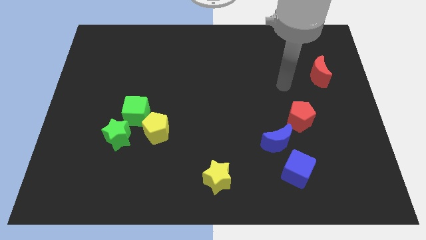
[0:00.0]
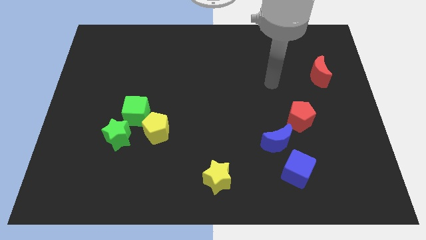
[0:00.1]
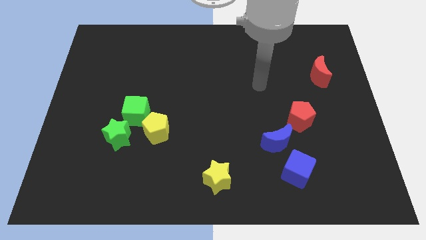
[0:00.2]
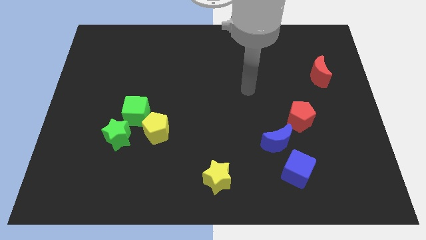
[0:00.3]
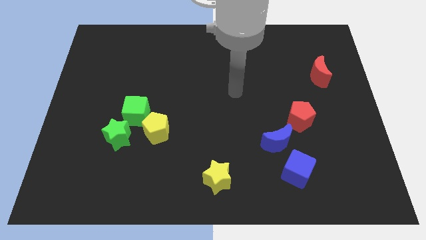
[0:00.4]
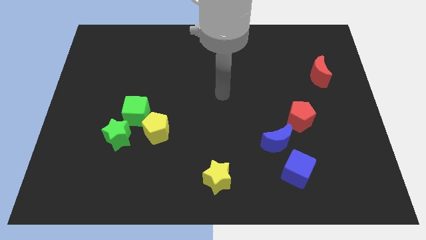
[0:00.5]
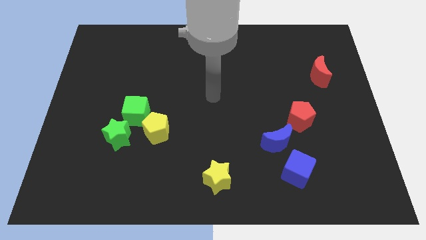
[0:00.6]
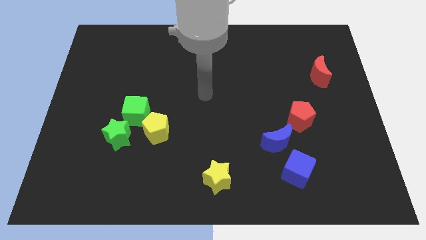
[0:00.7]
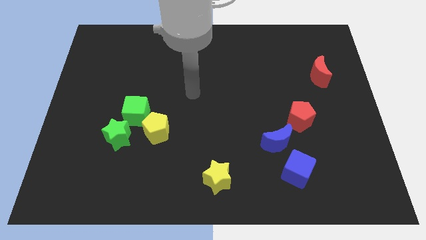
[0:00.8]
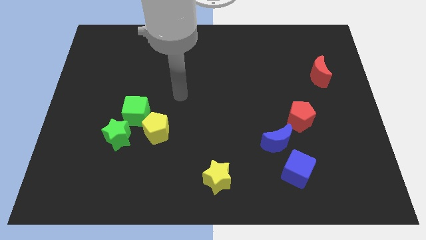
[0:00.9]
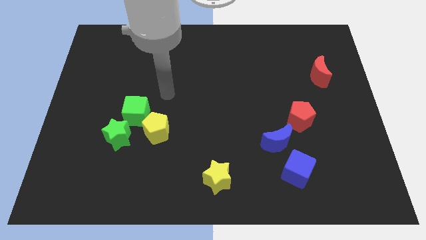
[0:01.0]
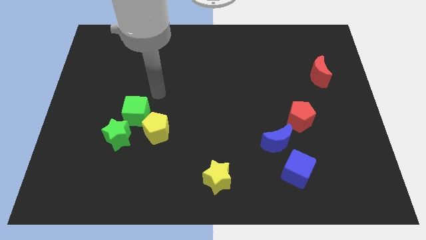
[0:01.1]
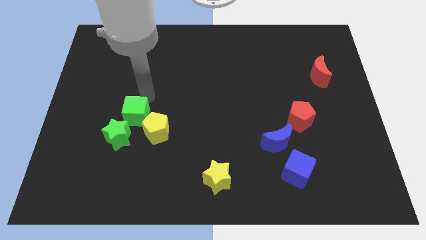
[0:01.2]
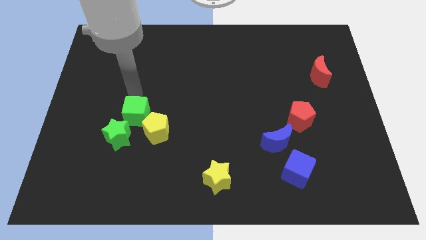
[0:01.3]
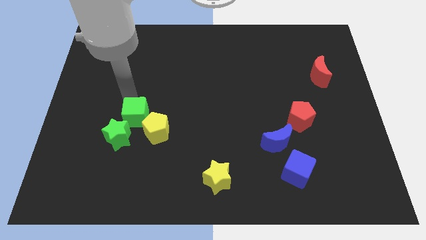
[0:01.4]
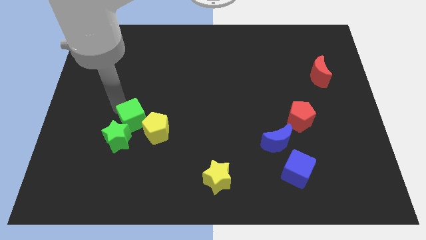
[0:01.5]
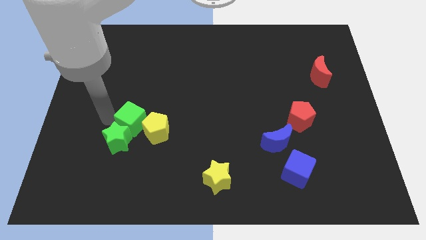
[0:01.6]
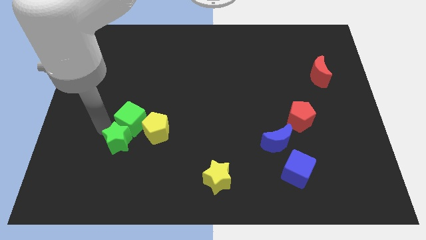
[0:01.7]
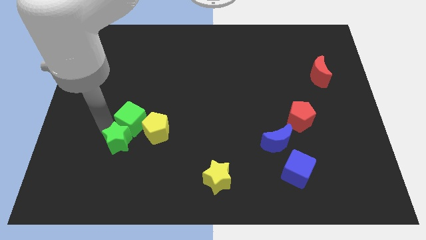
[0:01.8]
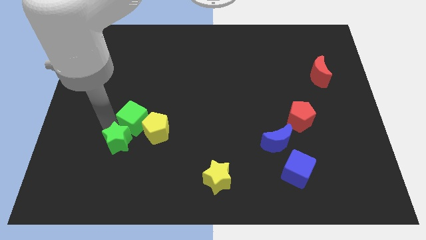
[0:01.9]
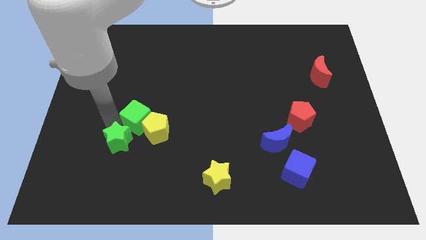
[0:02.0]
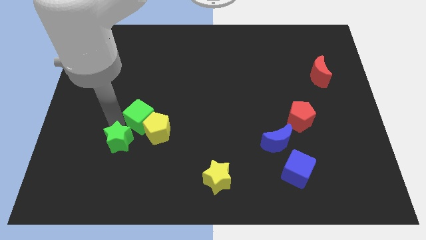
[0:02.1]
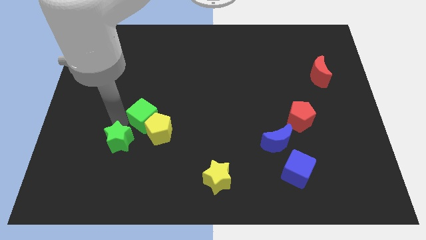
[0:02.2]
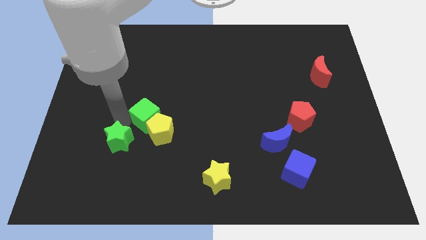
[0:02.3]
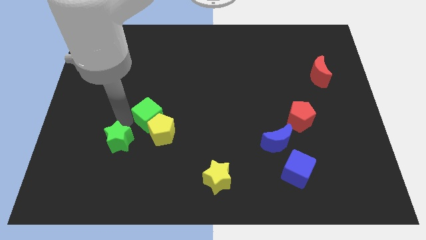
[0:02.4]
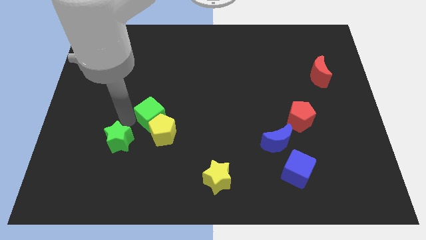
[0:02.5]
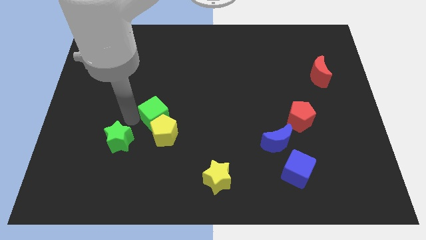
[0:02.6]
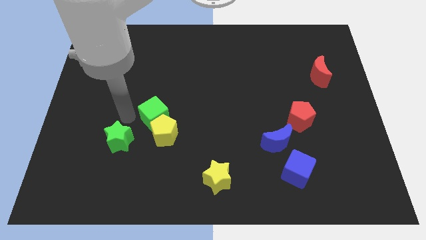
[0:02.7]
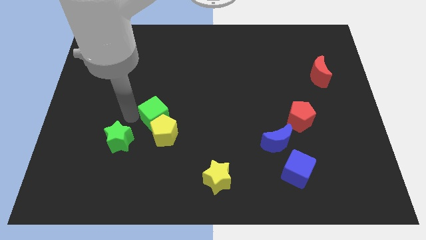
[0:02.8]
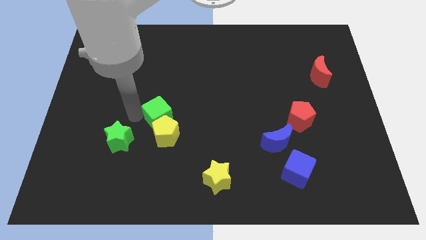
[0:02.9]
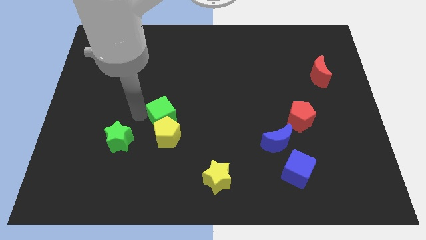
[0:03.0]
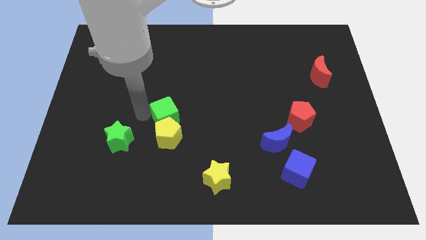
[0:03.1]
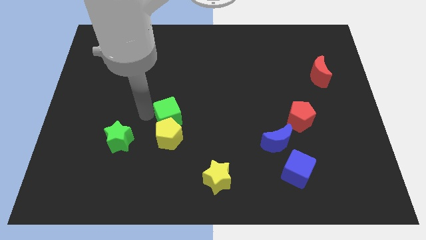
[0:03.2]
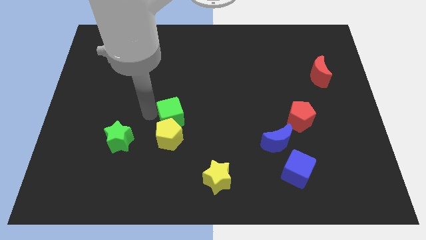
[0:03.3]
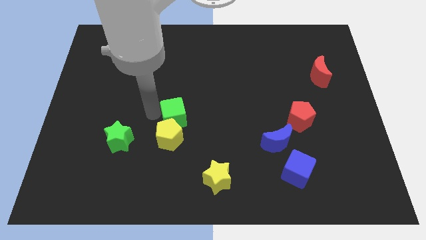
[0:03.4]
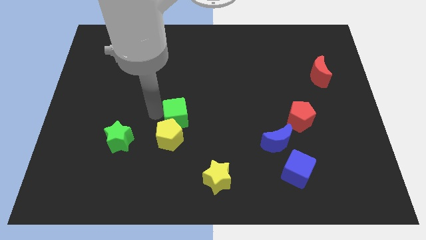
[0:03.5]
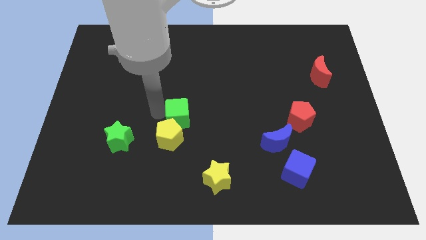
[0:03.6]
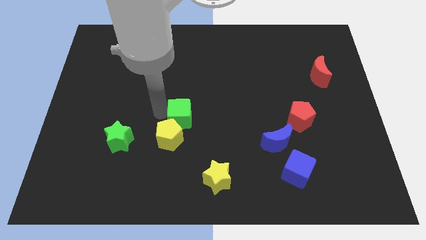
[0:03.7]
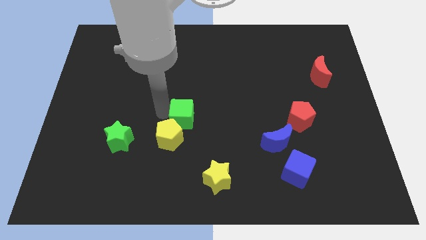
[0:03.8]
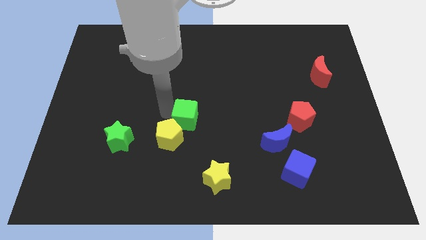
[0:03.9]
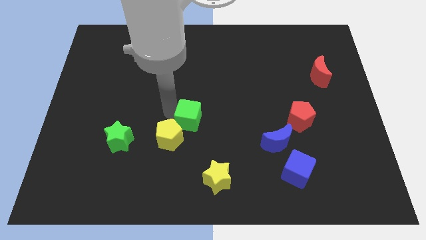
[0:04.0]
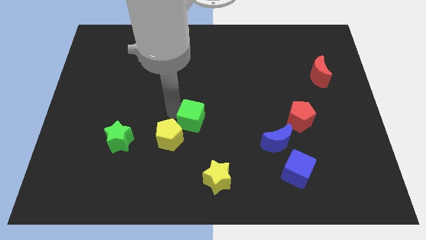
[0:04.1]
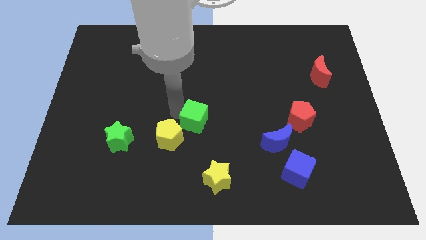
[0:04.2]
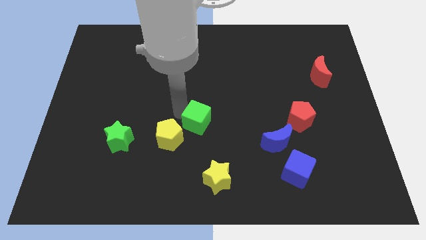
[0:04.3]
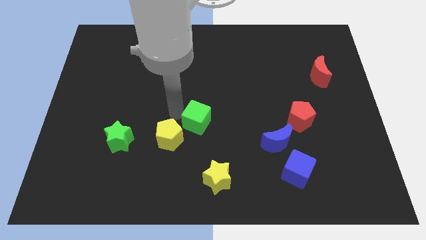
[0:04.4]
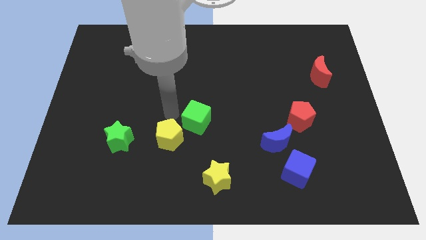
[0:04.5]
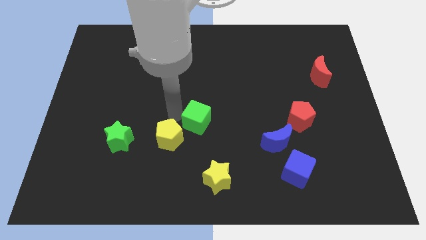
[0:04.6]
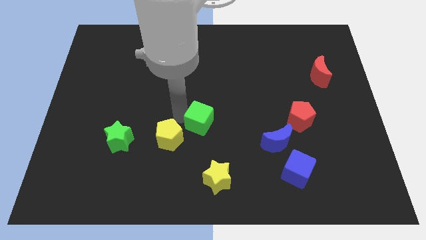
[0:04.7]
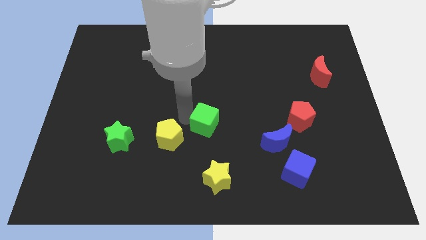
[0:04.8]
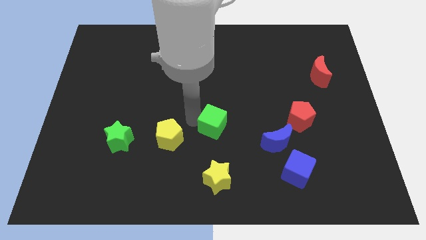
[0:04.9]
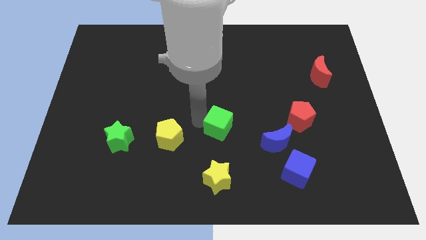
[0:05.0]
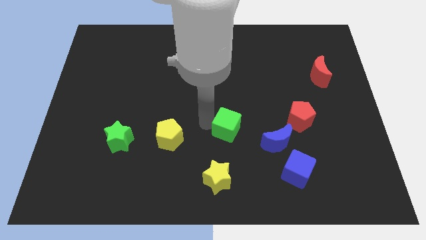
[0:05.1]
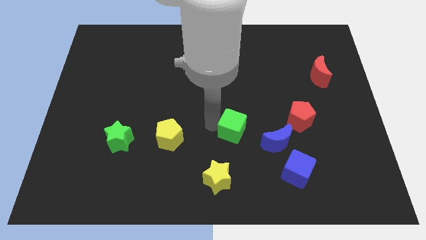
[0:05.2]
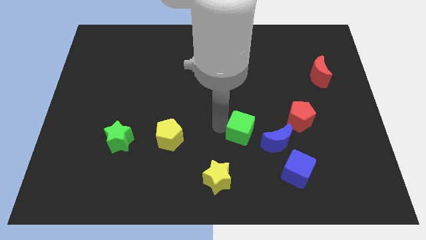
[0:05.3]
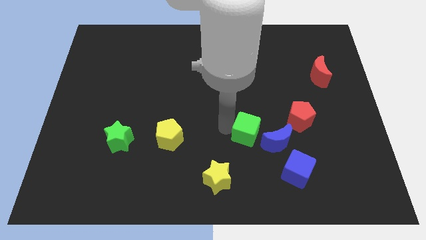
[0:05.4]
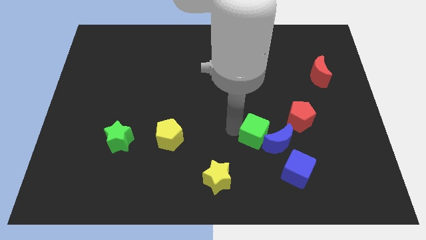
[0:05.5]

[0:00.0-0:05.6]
move the green cube next to the blue moon

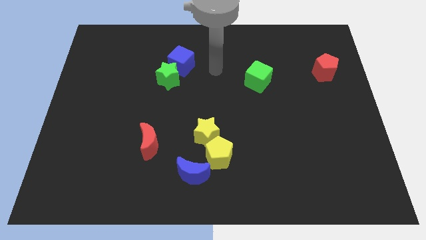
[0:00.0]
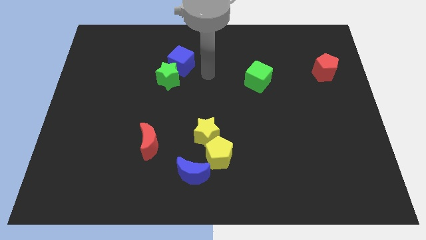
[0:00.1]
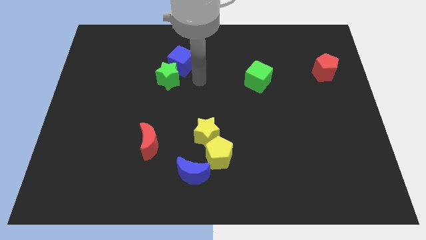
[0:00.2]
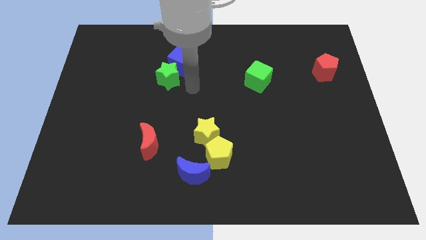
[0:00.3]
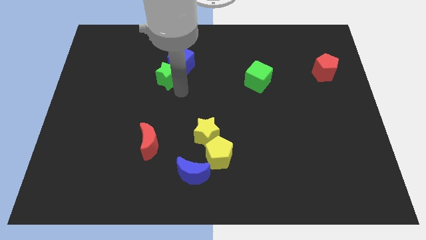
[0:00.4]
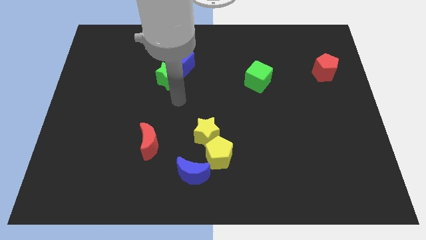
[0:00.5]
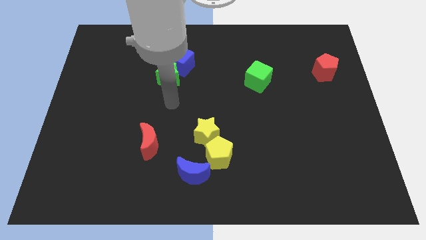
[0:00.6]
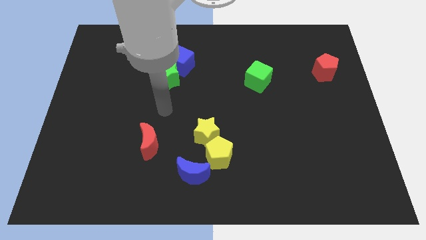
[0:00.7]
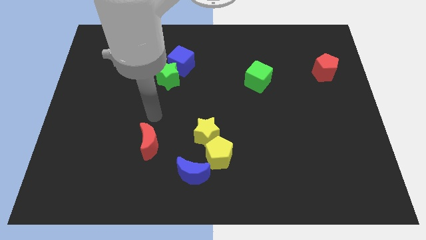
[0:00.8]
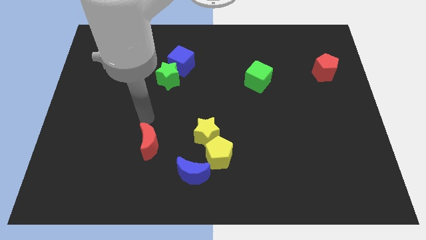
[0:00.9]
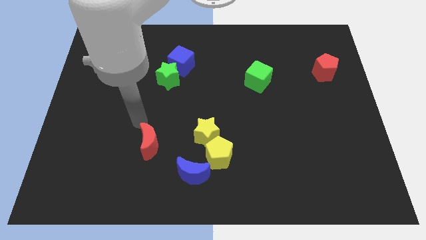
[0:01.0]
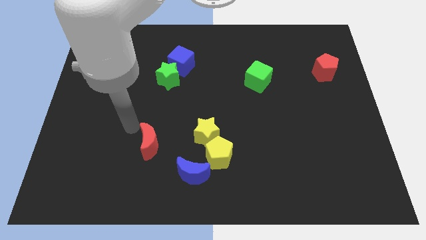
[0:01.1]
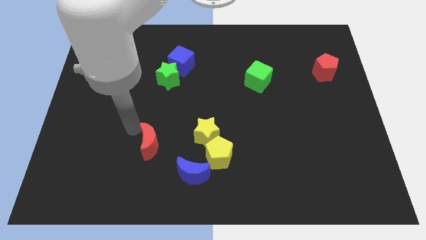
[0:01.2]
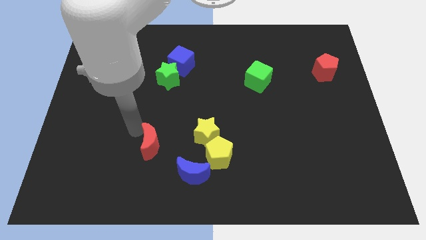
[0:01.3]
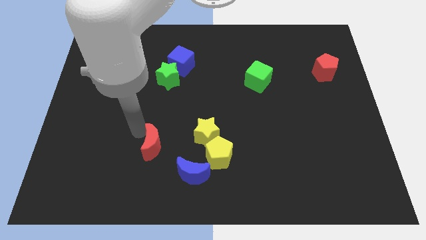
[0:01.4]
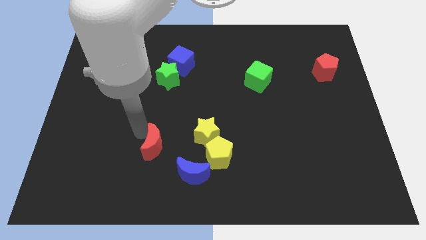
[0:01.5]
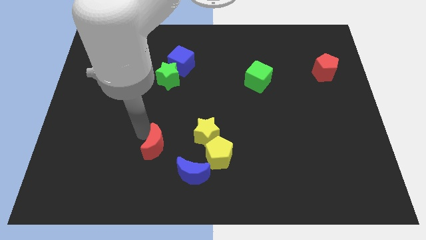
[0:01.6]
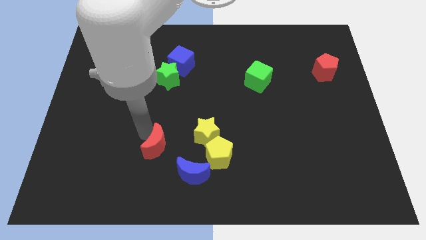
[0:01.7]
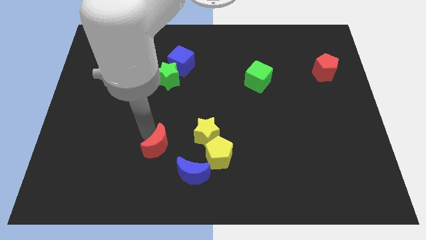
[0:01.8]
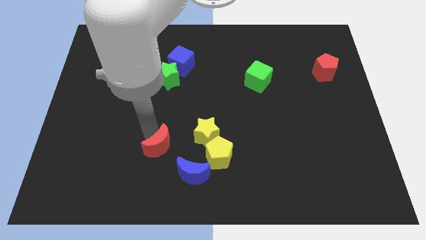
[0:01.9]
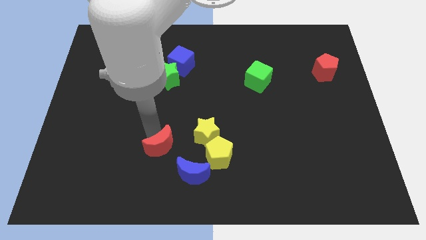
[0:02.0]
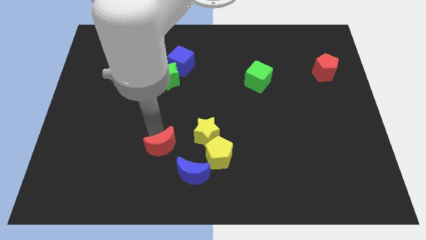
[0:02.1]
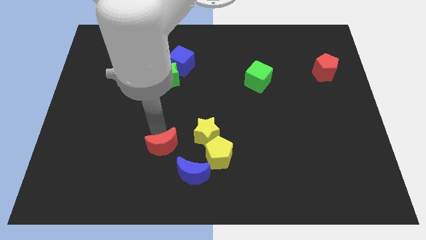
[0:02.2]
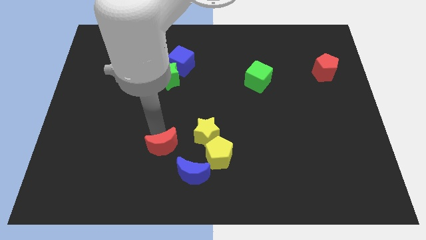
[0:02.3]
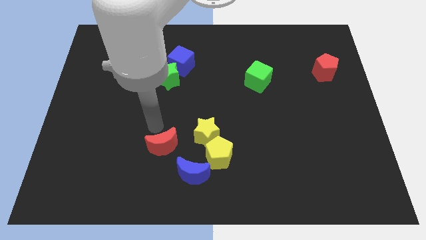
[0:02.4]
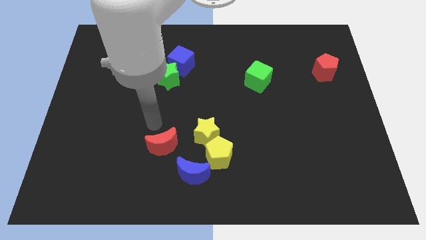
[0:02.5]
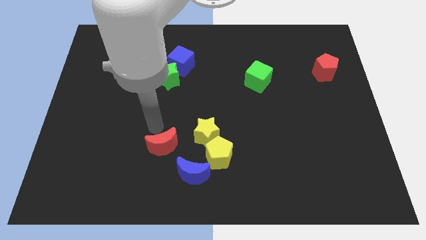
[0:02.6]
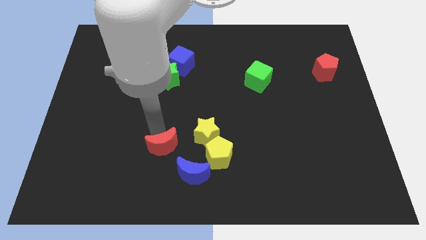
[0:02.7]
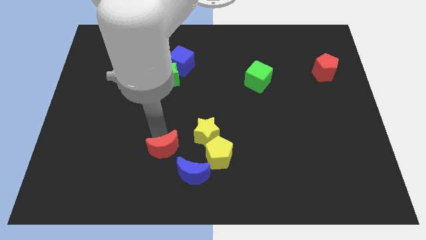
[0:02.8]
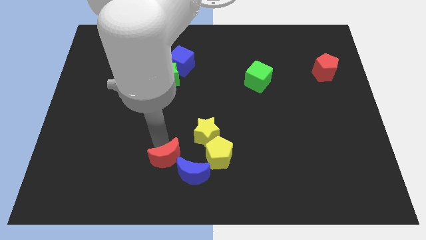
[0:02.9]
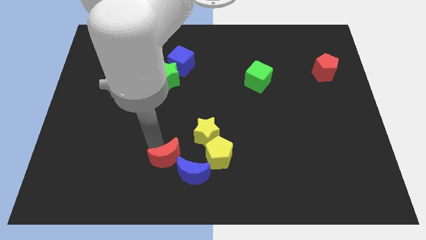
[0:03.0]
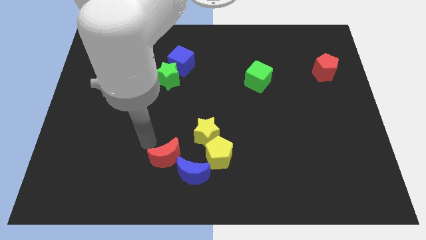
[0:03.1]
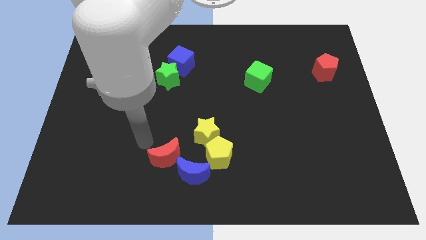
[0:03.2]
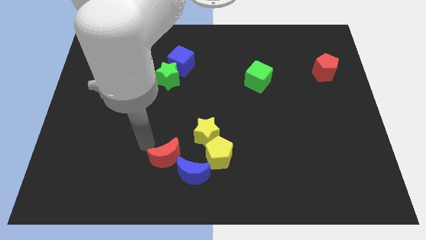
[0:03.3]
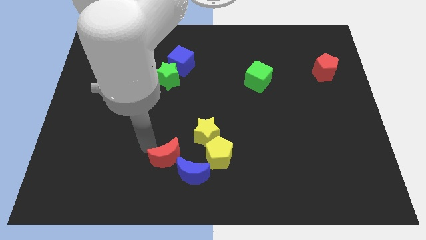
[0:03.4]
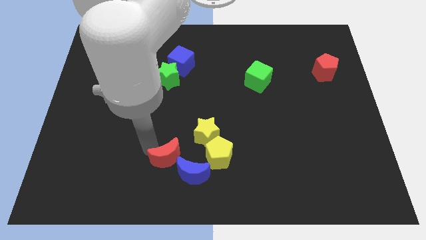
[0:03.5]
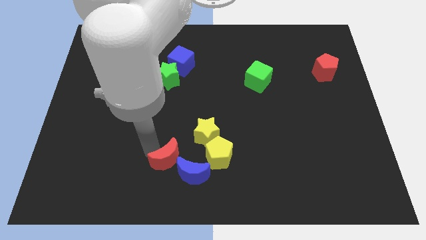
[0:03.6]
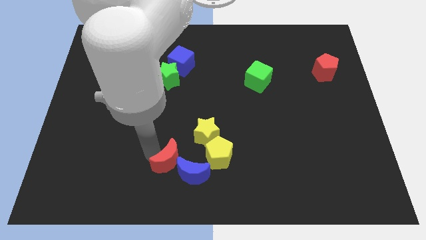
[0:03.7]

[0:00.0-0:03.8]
push the red moon to the blue moon
